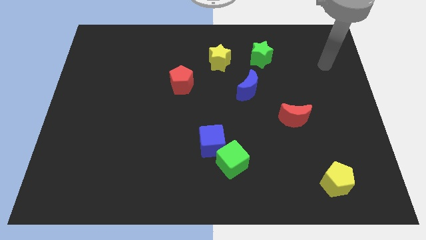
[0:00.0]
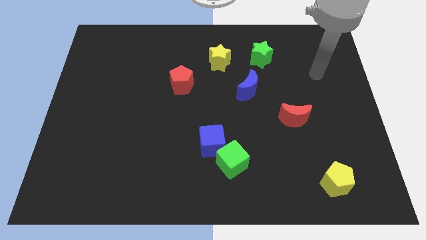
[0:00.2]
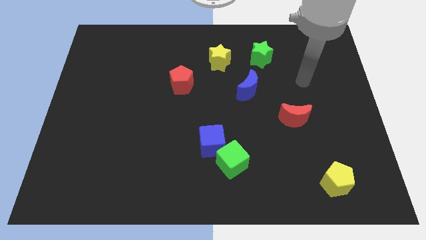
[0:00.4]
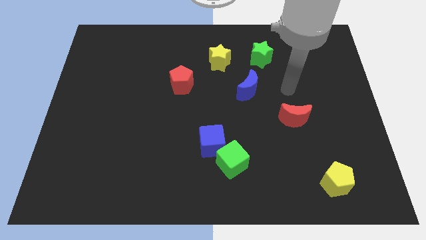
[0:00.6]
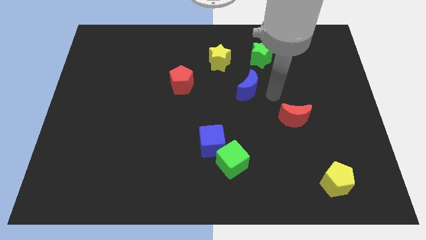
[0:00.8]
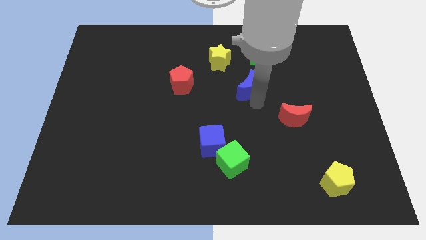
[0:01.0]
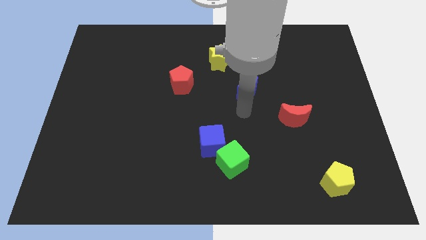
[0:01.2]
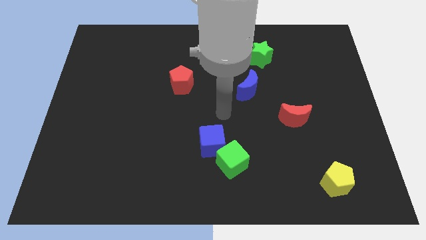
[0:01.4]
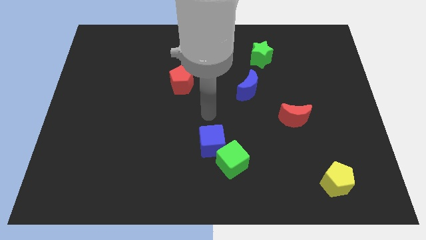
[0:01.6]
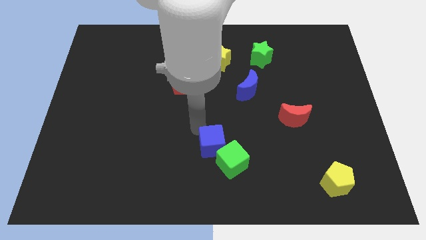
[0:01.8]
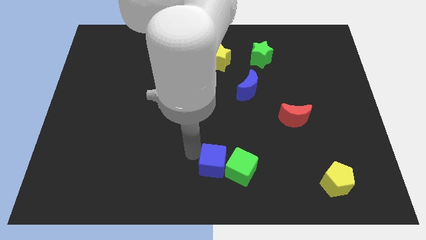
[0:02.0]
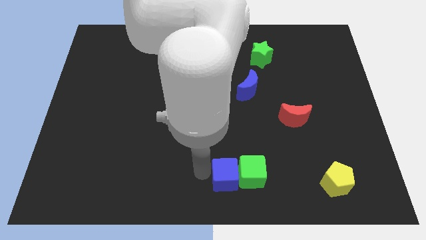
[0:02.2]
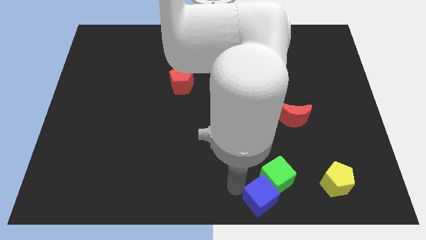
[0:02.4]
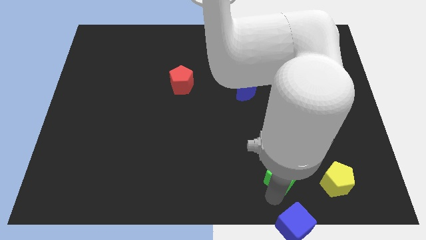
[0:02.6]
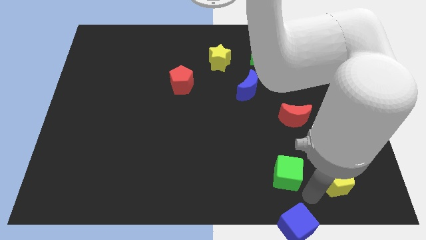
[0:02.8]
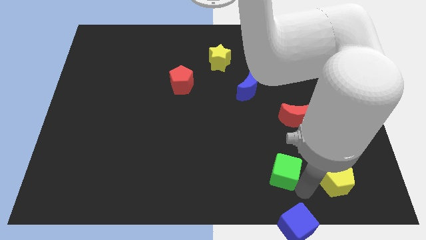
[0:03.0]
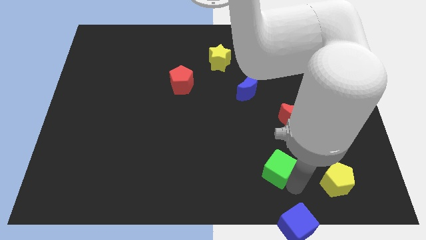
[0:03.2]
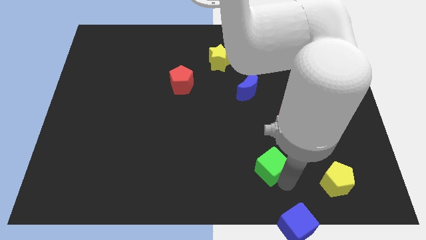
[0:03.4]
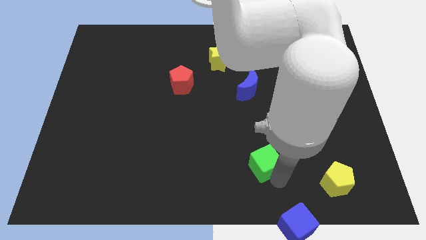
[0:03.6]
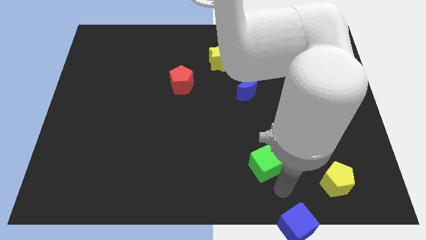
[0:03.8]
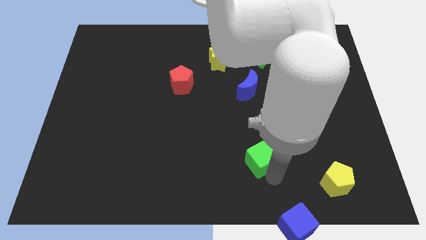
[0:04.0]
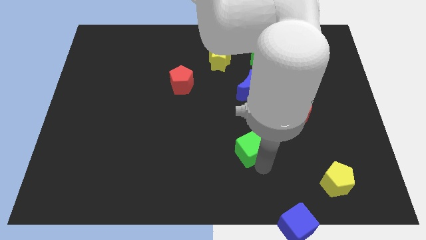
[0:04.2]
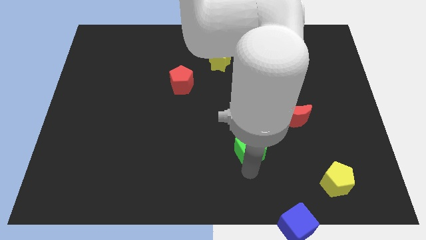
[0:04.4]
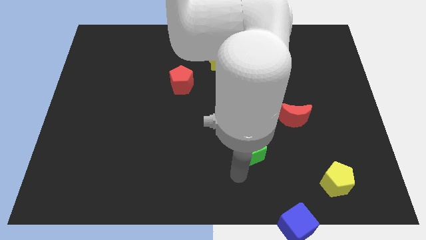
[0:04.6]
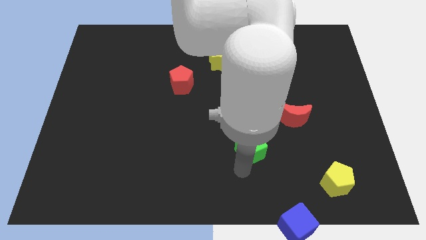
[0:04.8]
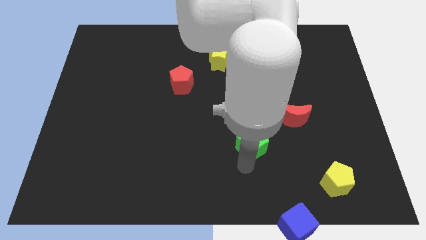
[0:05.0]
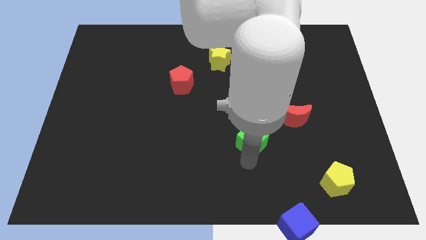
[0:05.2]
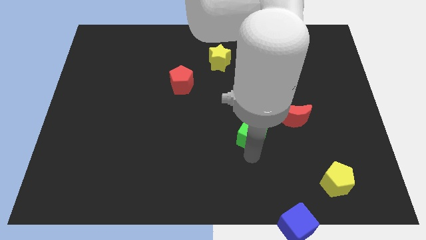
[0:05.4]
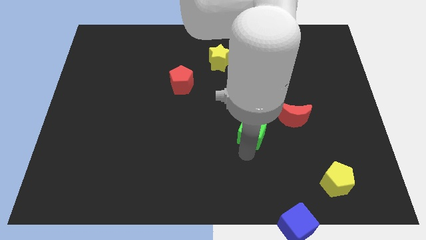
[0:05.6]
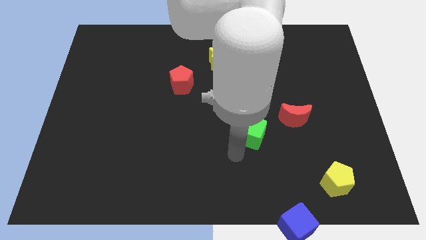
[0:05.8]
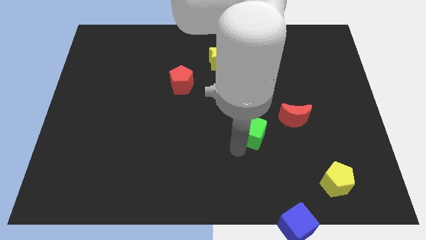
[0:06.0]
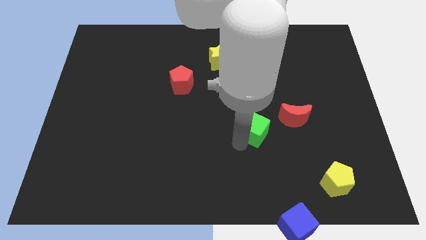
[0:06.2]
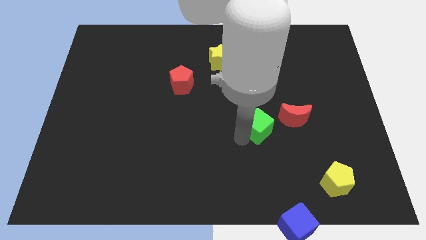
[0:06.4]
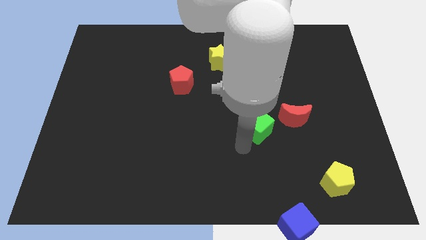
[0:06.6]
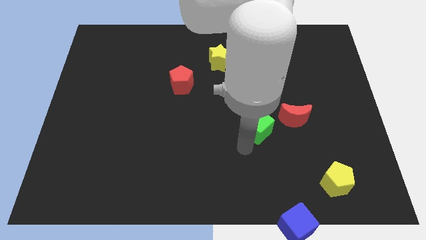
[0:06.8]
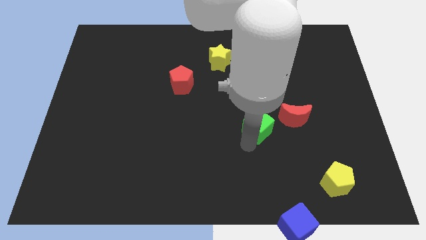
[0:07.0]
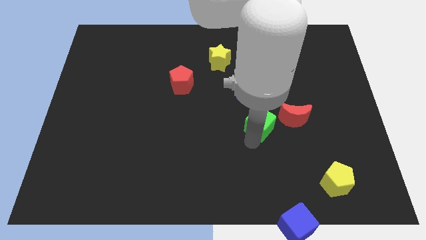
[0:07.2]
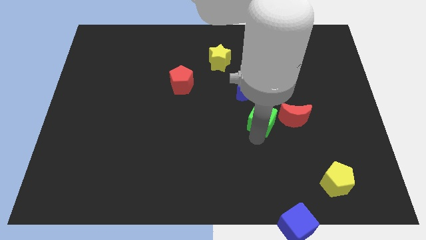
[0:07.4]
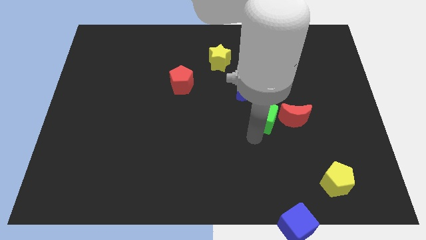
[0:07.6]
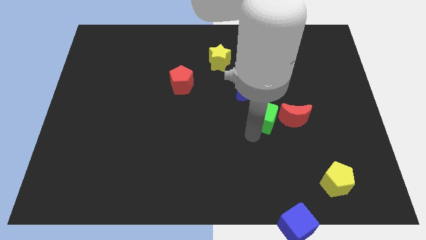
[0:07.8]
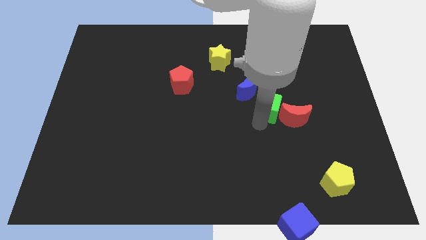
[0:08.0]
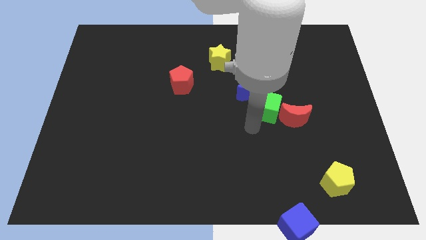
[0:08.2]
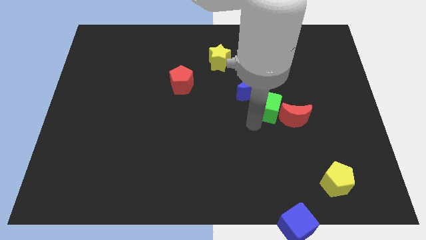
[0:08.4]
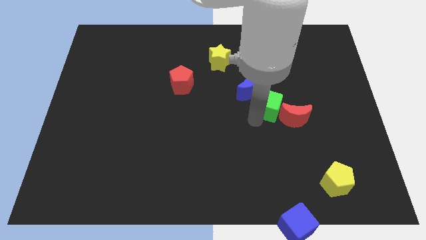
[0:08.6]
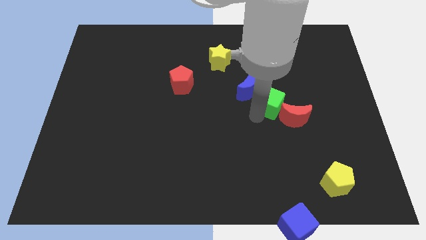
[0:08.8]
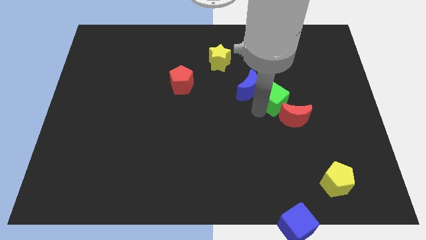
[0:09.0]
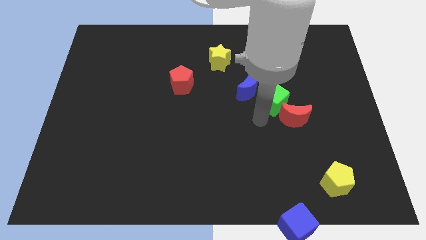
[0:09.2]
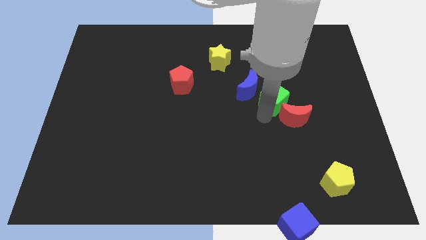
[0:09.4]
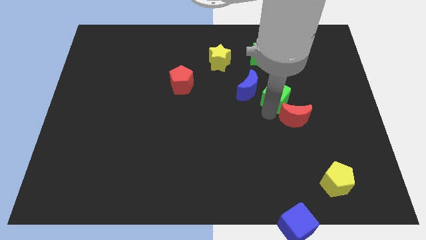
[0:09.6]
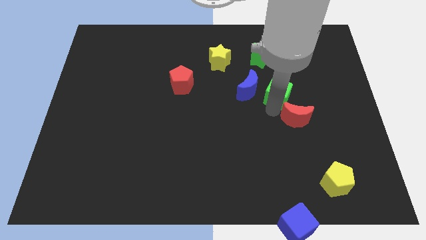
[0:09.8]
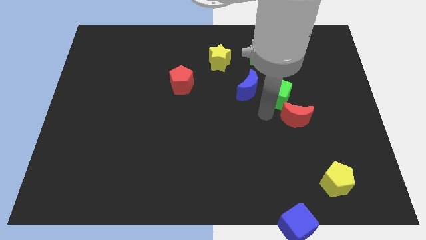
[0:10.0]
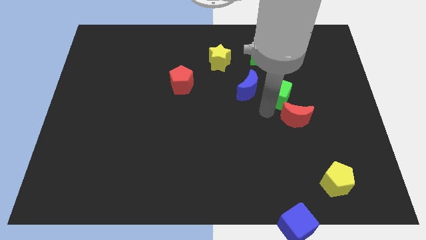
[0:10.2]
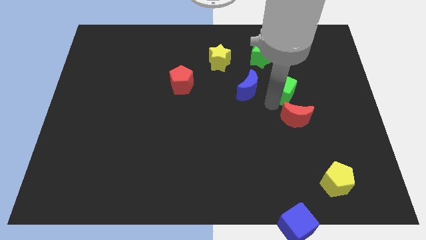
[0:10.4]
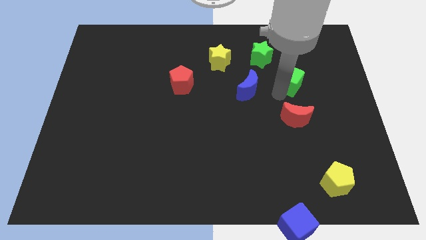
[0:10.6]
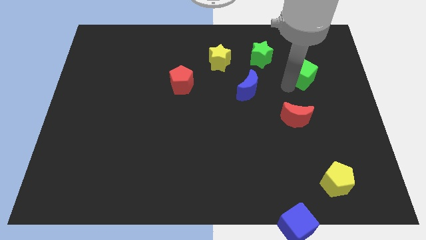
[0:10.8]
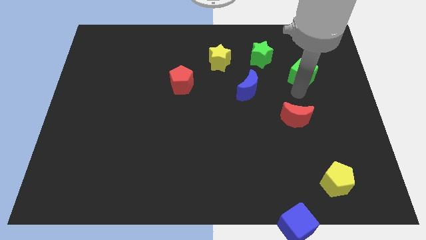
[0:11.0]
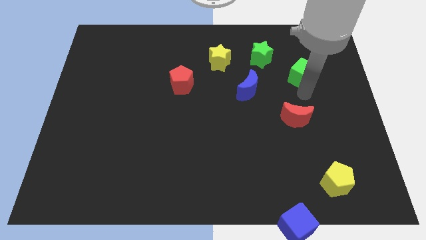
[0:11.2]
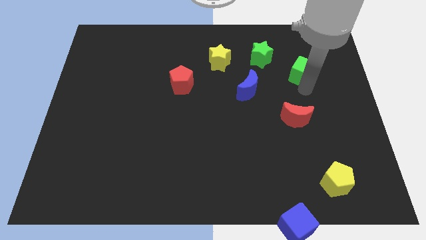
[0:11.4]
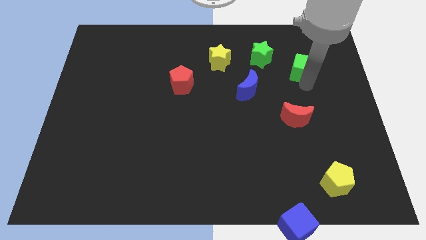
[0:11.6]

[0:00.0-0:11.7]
push the green cube just right of the green star
